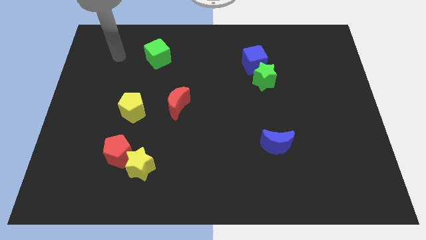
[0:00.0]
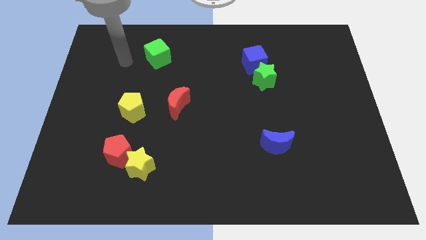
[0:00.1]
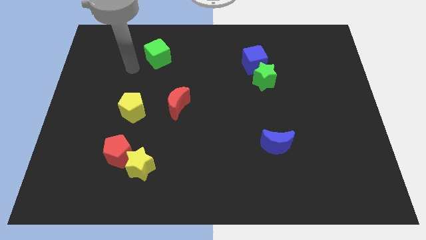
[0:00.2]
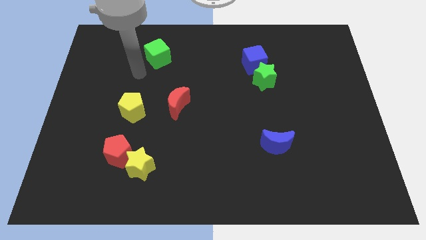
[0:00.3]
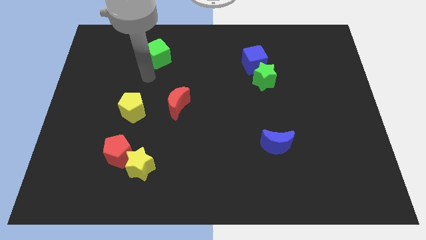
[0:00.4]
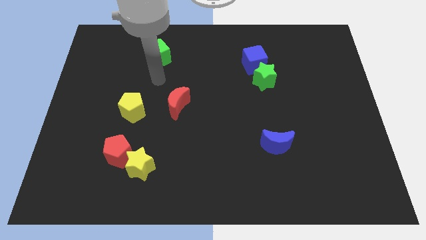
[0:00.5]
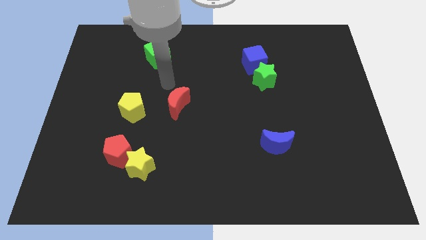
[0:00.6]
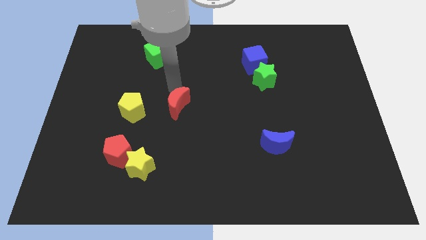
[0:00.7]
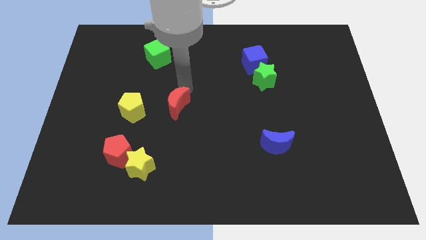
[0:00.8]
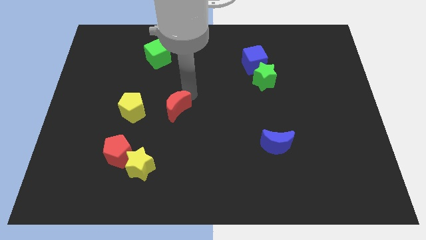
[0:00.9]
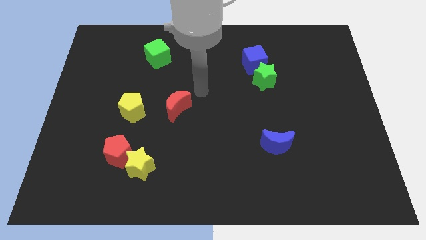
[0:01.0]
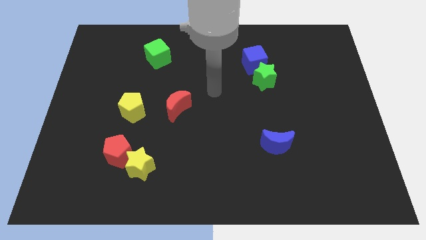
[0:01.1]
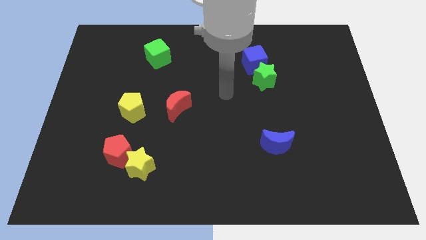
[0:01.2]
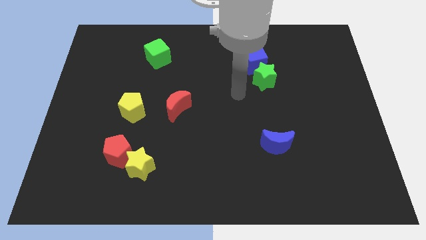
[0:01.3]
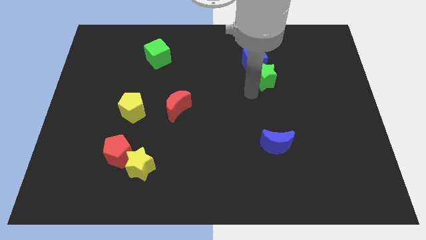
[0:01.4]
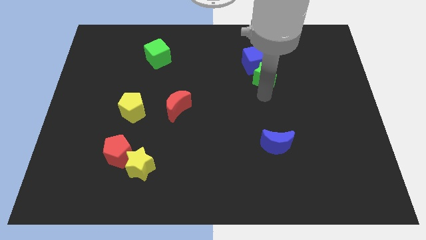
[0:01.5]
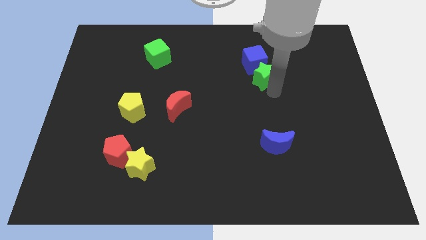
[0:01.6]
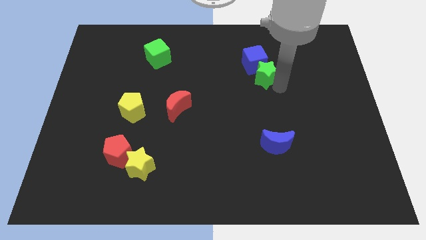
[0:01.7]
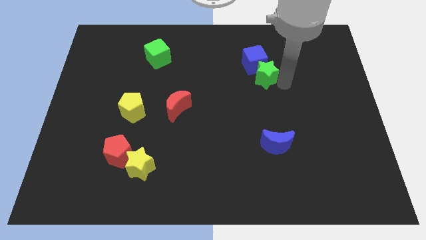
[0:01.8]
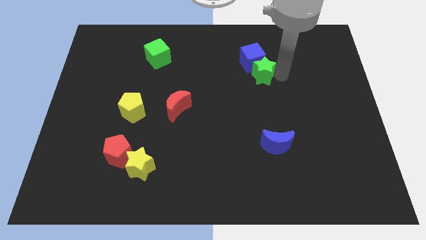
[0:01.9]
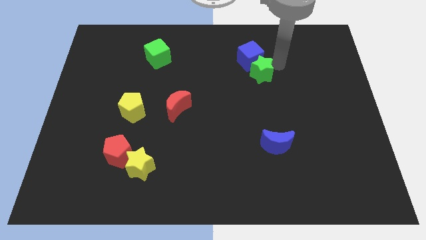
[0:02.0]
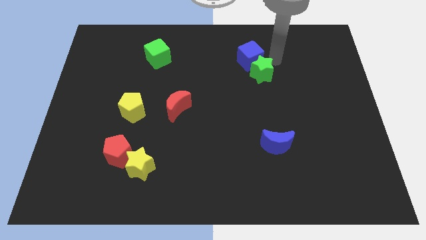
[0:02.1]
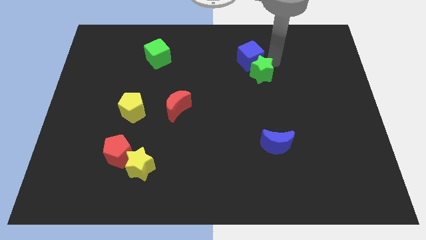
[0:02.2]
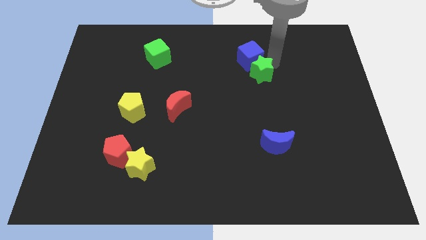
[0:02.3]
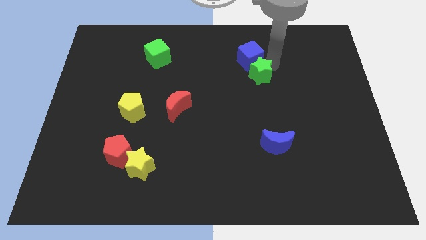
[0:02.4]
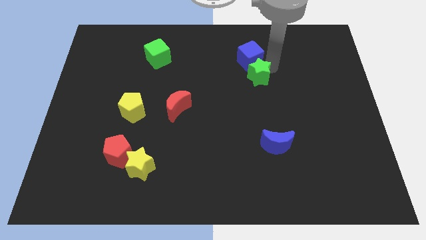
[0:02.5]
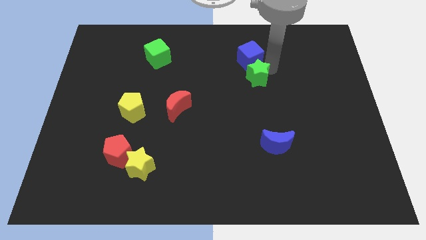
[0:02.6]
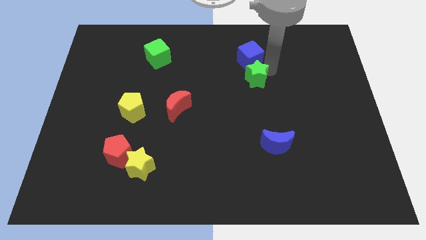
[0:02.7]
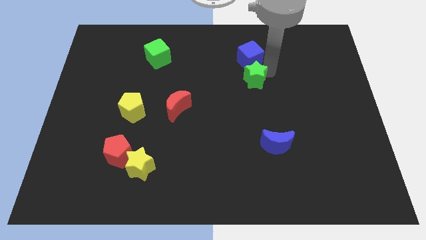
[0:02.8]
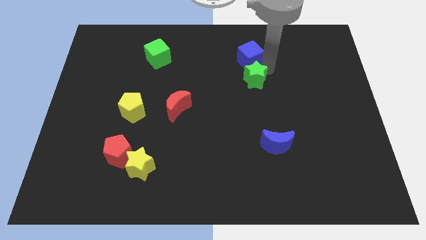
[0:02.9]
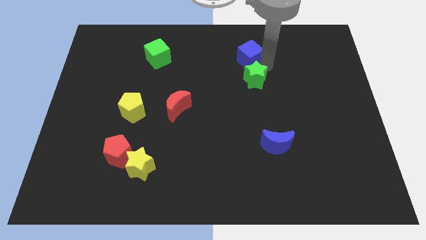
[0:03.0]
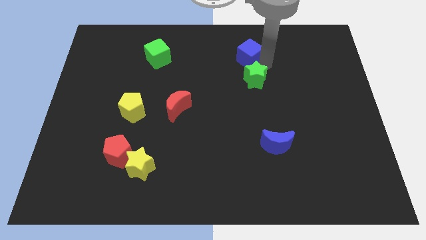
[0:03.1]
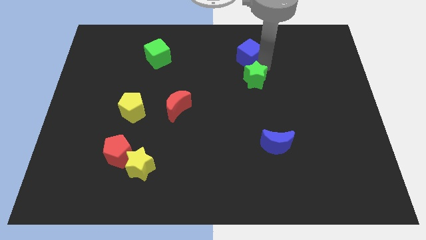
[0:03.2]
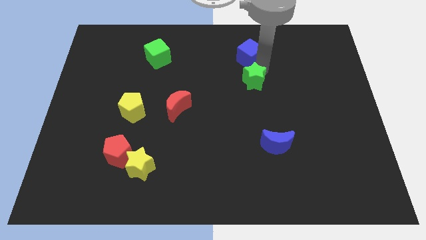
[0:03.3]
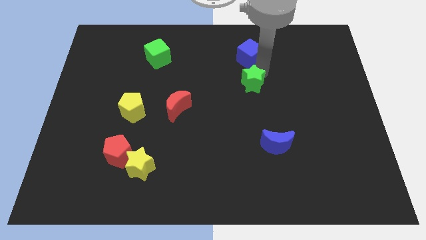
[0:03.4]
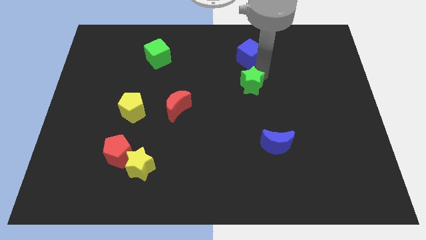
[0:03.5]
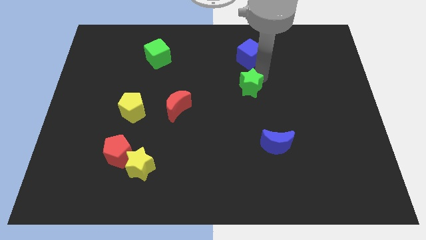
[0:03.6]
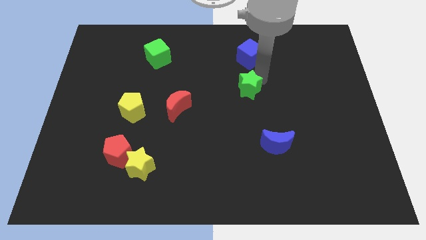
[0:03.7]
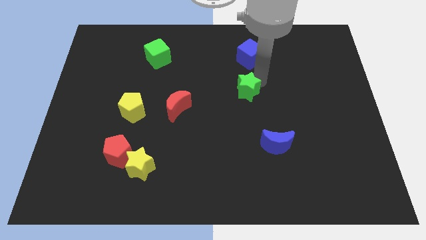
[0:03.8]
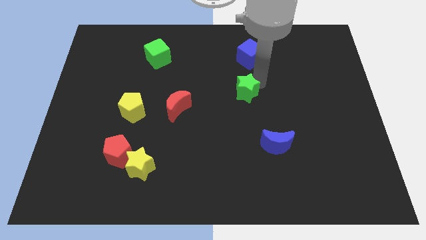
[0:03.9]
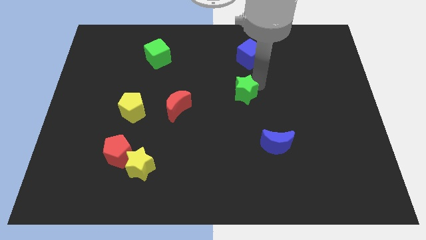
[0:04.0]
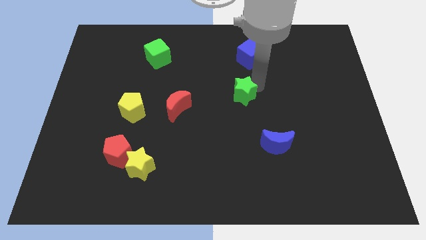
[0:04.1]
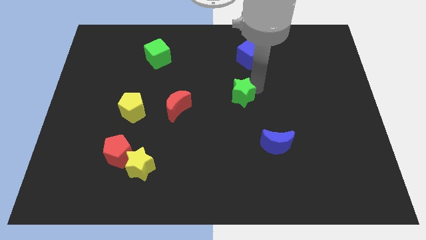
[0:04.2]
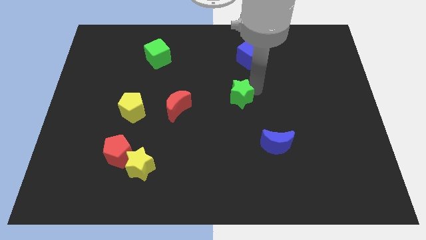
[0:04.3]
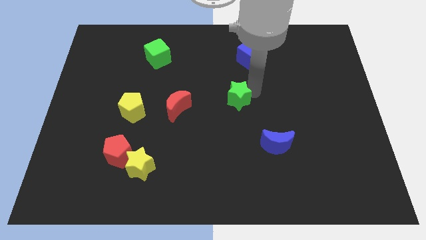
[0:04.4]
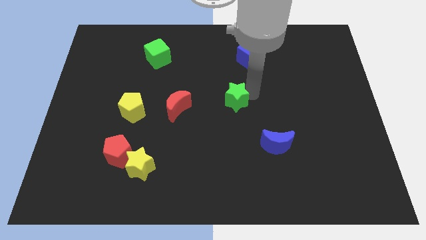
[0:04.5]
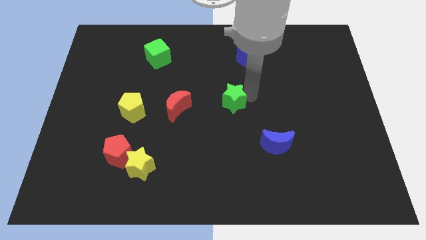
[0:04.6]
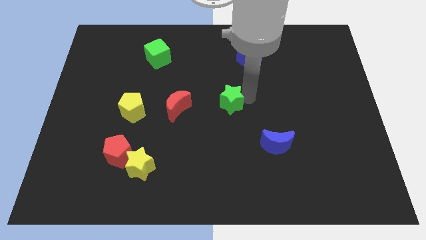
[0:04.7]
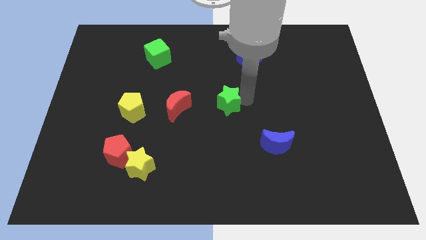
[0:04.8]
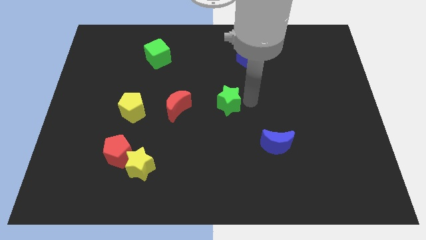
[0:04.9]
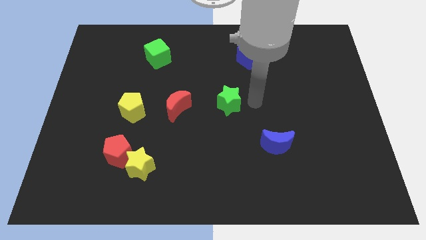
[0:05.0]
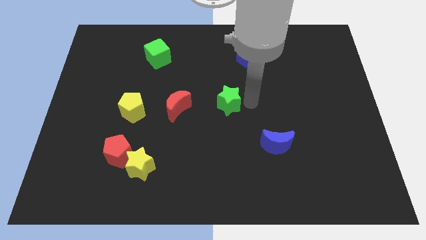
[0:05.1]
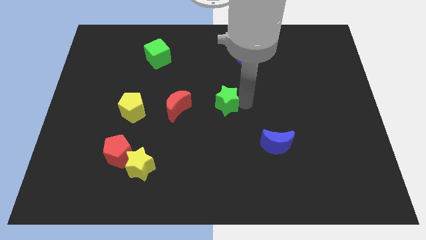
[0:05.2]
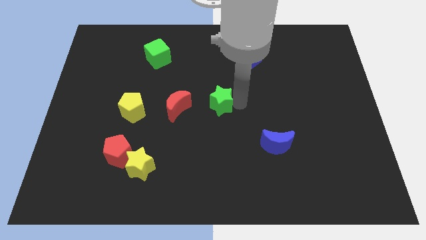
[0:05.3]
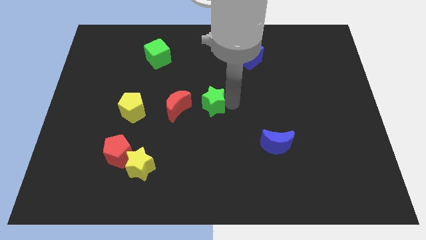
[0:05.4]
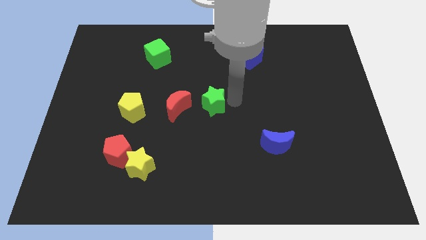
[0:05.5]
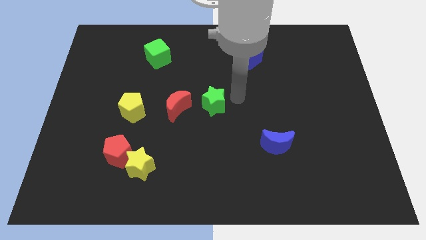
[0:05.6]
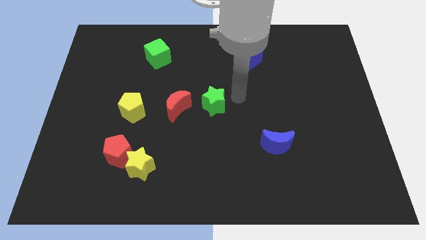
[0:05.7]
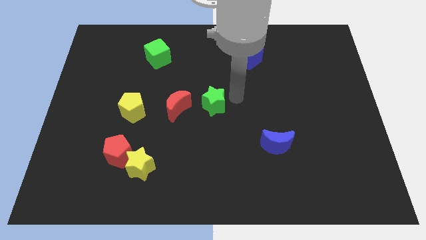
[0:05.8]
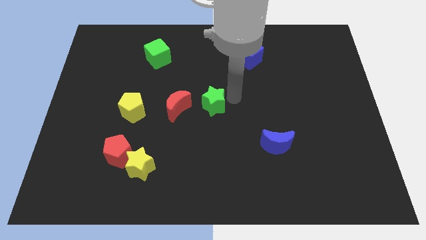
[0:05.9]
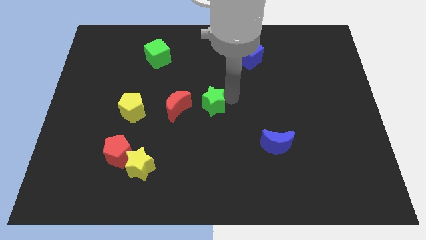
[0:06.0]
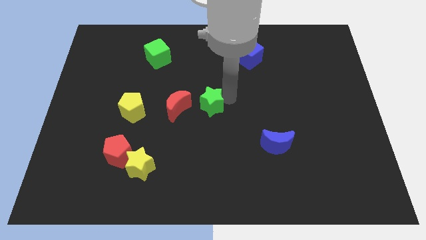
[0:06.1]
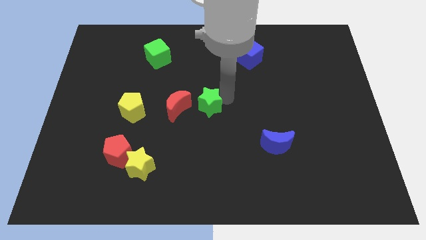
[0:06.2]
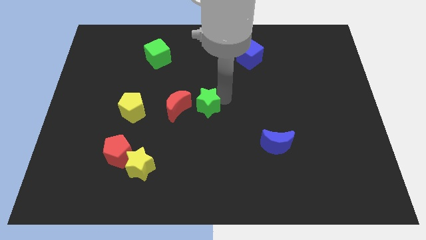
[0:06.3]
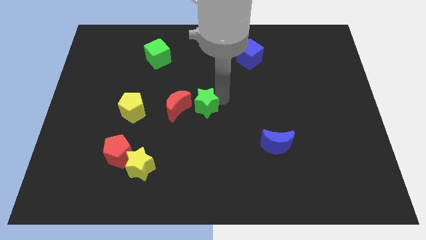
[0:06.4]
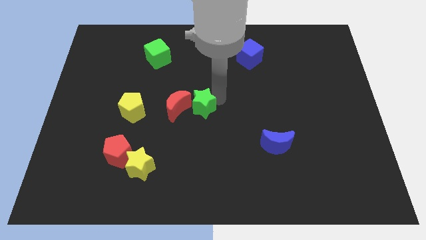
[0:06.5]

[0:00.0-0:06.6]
move the green star right of the yellow pentagon
